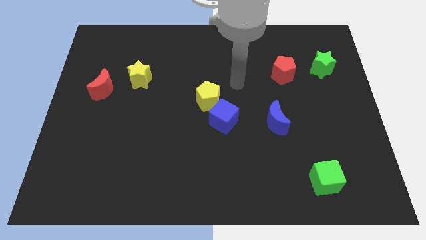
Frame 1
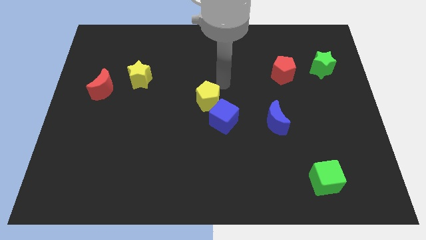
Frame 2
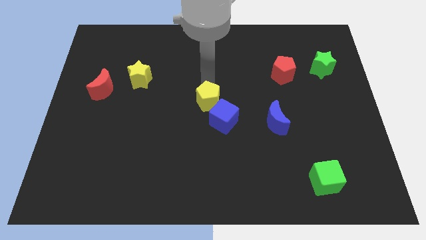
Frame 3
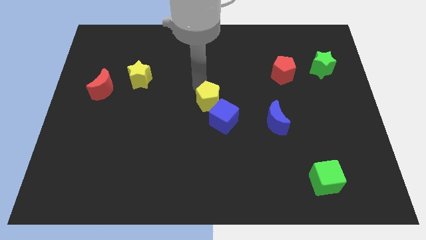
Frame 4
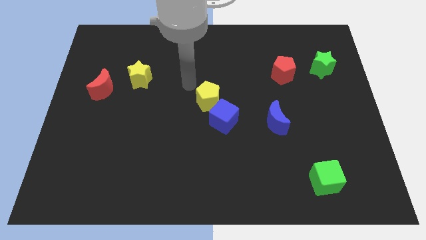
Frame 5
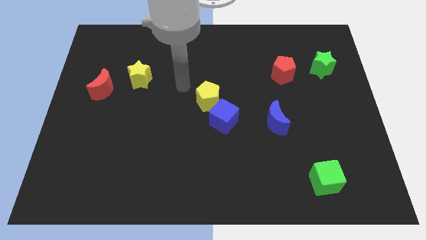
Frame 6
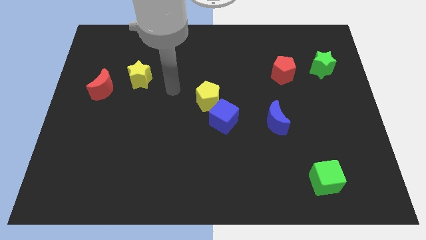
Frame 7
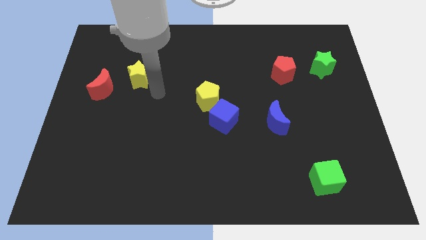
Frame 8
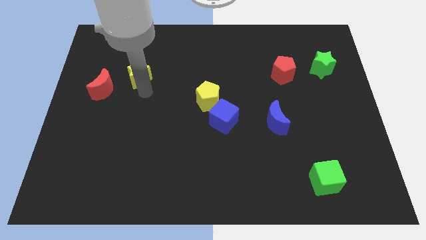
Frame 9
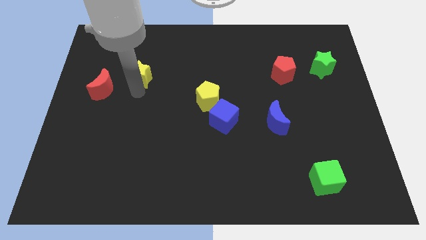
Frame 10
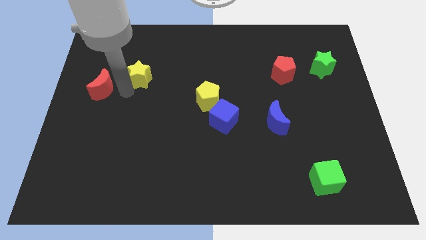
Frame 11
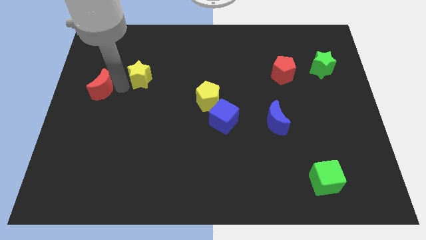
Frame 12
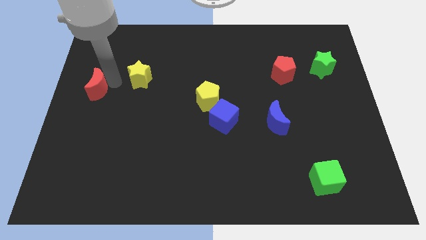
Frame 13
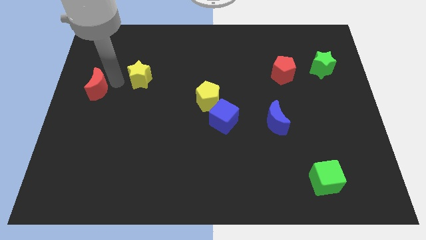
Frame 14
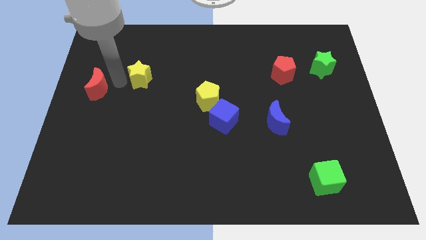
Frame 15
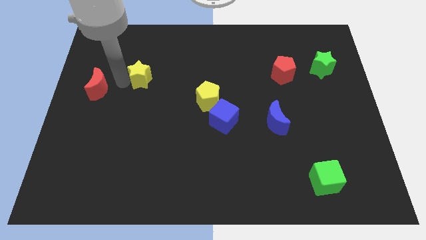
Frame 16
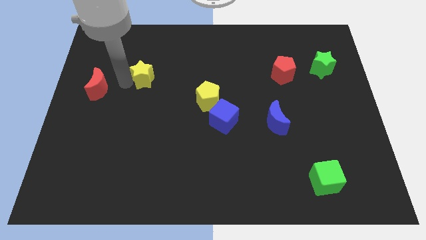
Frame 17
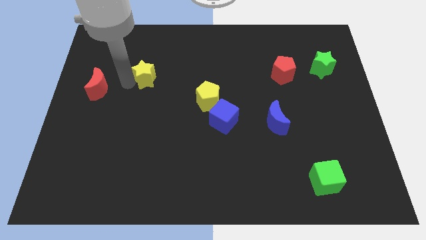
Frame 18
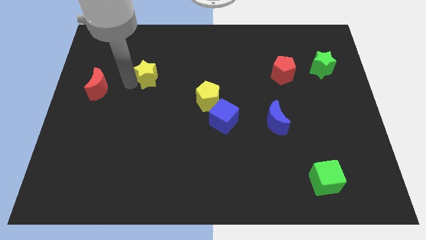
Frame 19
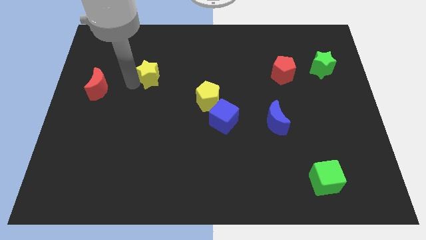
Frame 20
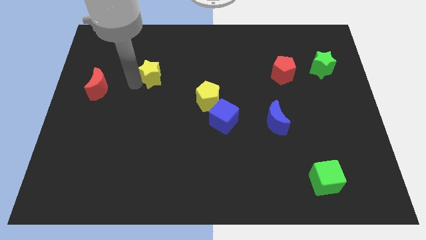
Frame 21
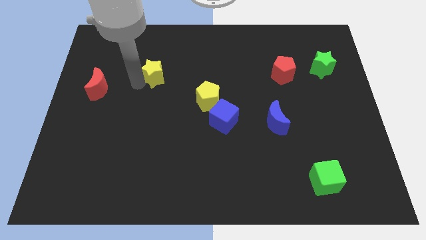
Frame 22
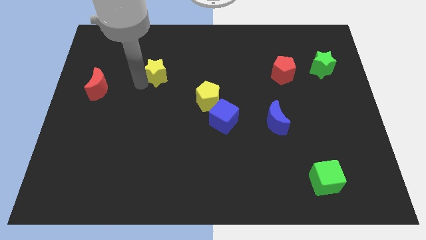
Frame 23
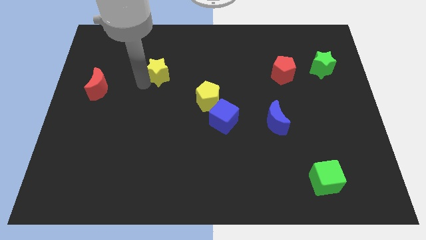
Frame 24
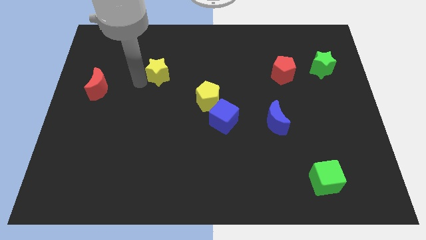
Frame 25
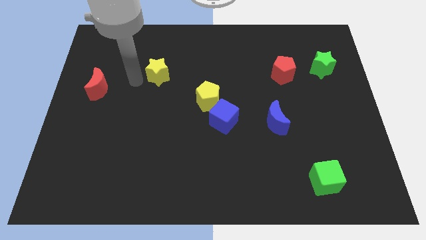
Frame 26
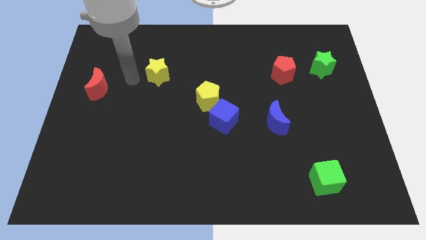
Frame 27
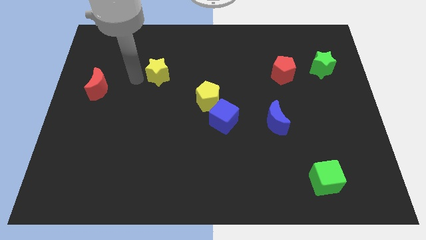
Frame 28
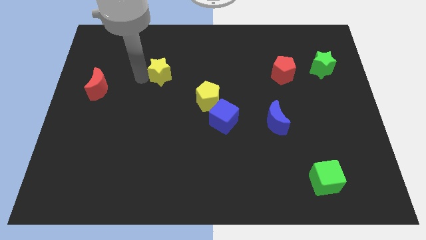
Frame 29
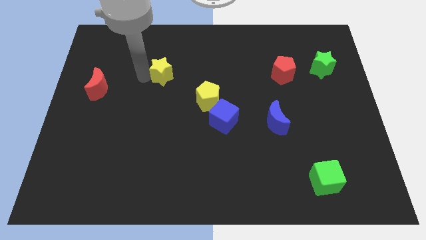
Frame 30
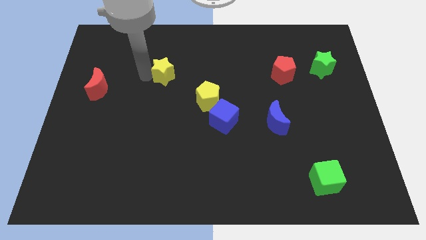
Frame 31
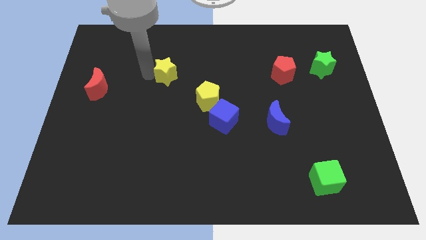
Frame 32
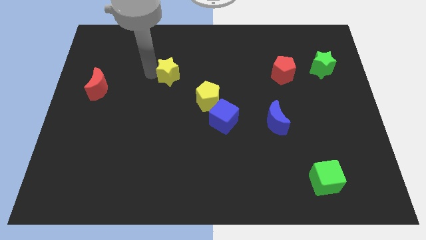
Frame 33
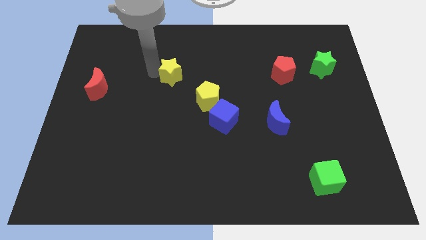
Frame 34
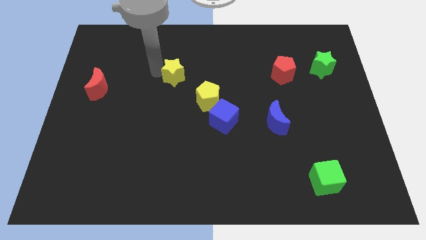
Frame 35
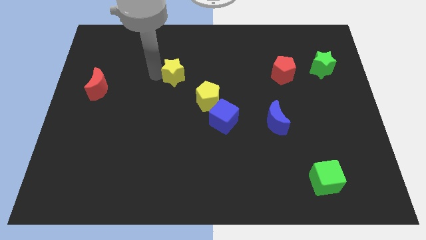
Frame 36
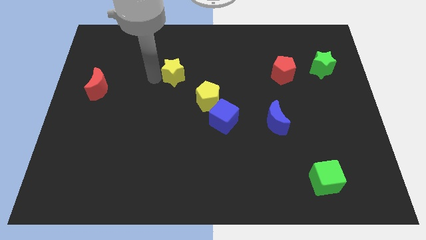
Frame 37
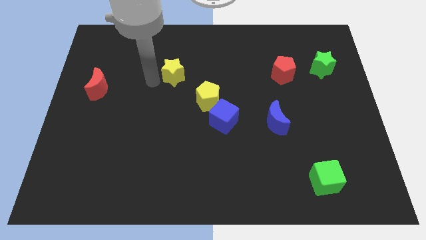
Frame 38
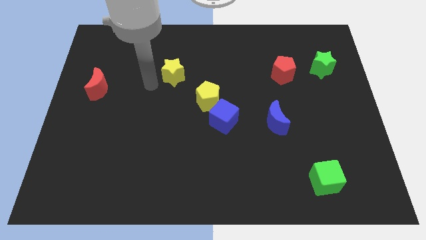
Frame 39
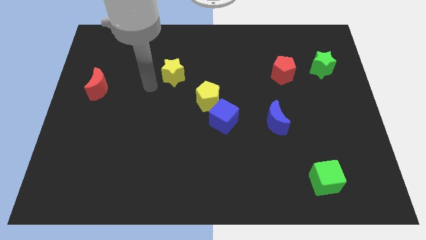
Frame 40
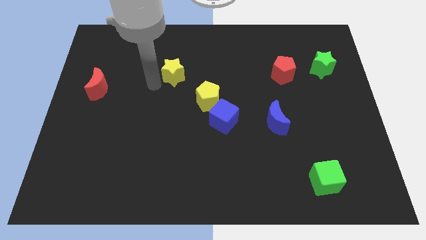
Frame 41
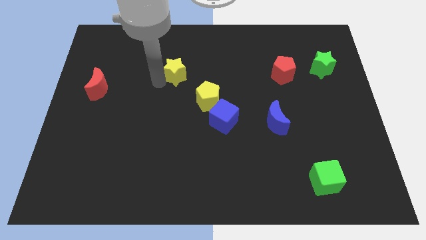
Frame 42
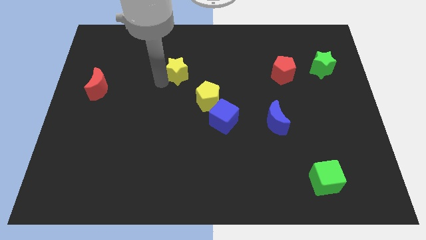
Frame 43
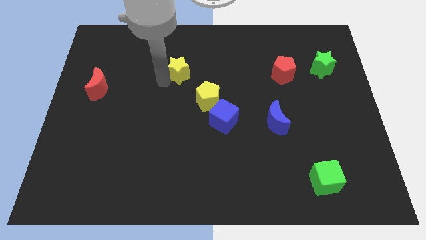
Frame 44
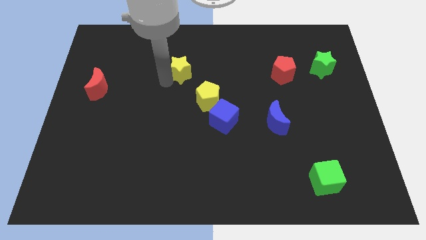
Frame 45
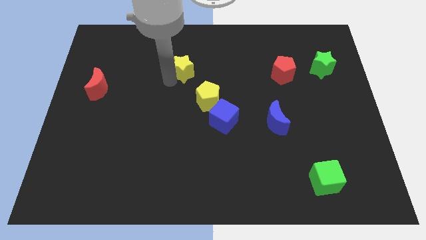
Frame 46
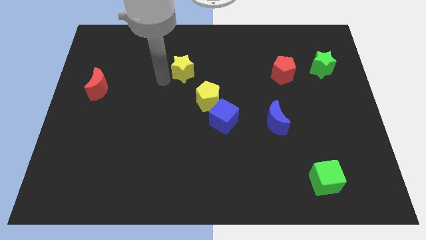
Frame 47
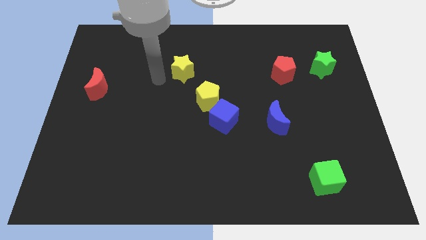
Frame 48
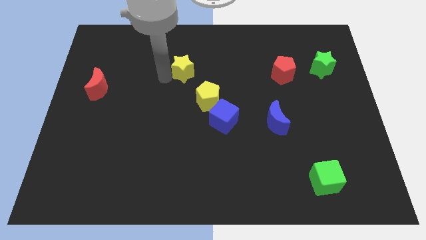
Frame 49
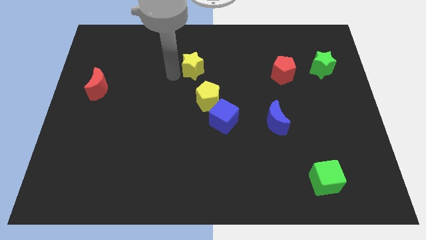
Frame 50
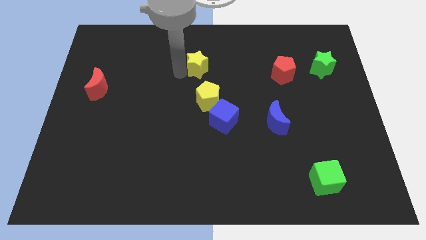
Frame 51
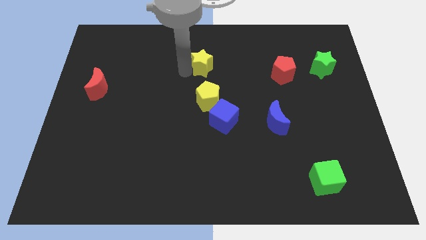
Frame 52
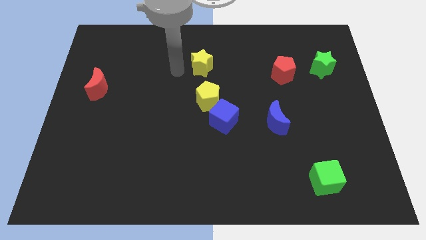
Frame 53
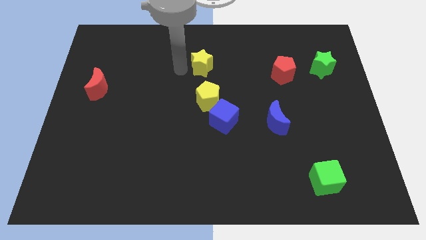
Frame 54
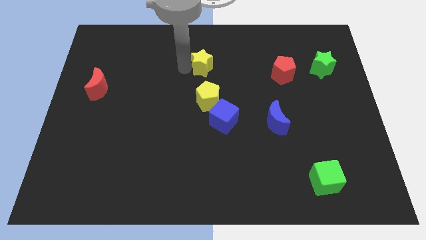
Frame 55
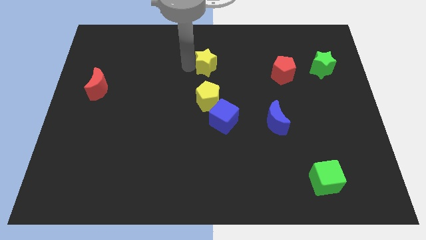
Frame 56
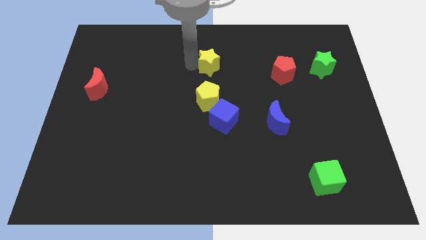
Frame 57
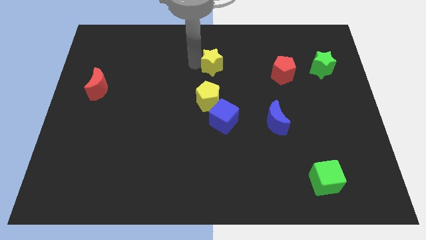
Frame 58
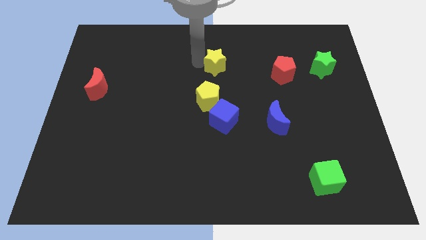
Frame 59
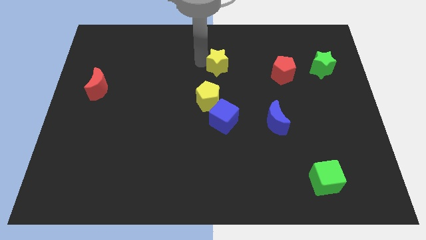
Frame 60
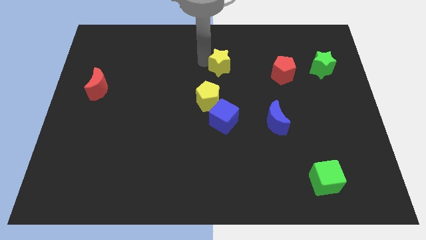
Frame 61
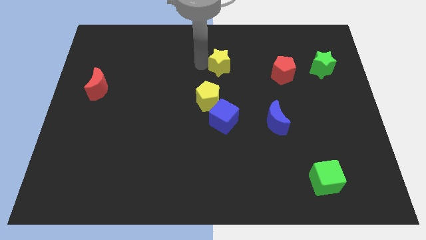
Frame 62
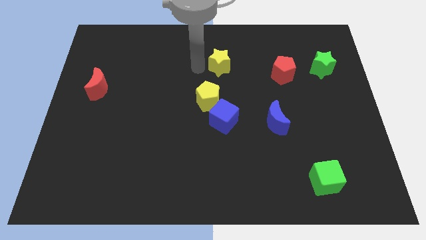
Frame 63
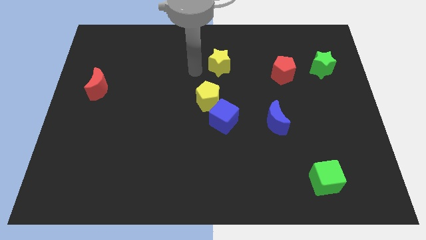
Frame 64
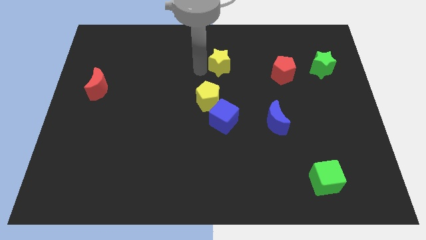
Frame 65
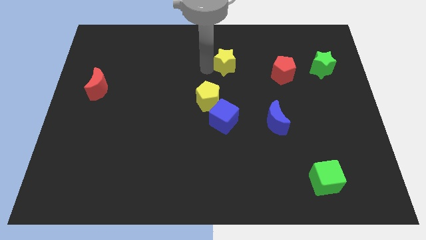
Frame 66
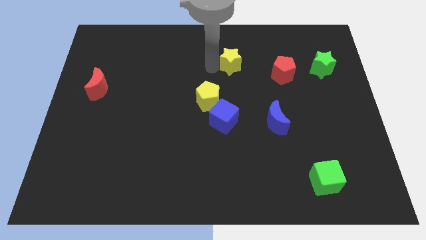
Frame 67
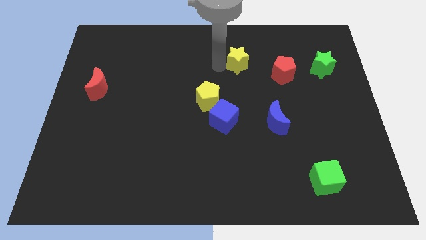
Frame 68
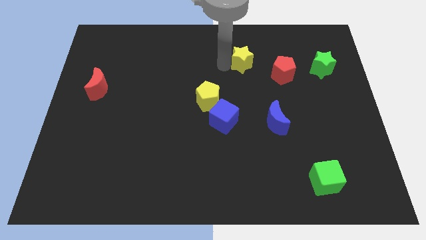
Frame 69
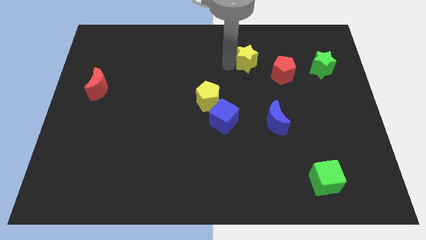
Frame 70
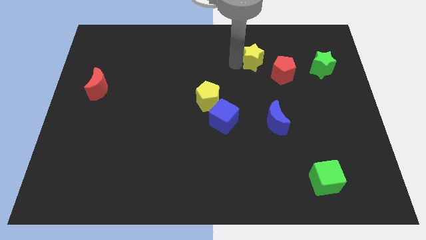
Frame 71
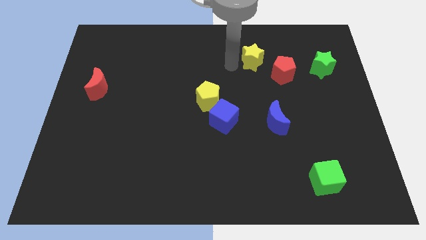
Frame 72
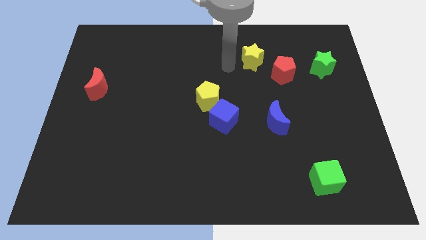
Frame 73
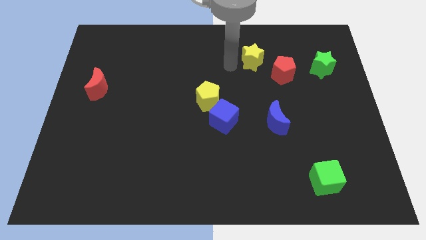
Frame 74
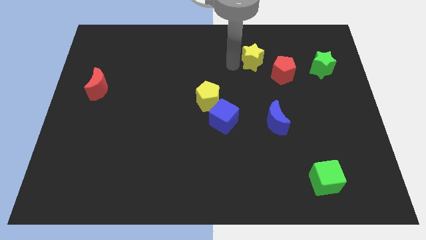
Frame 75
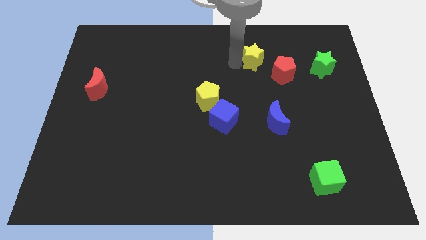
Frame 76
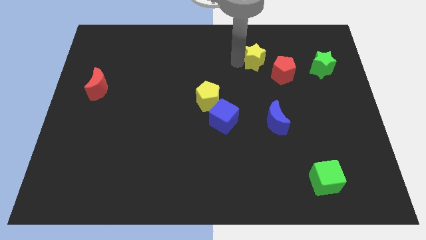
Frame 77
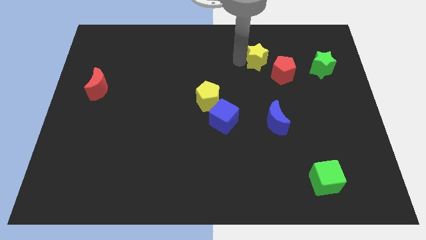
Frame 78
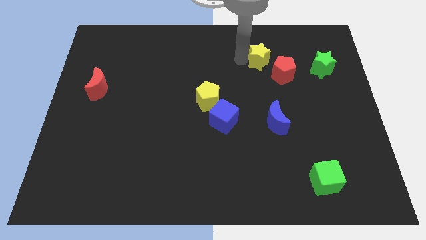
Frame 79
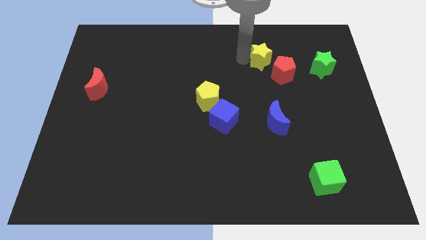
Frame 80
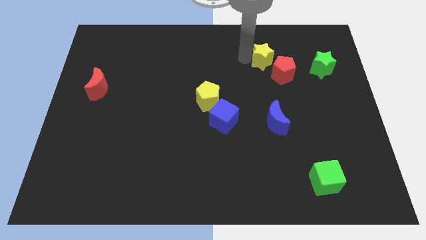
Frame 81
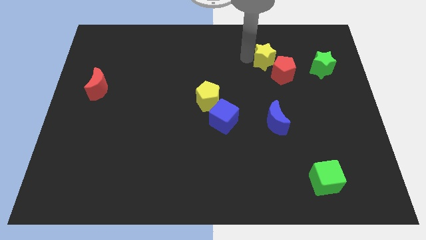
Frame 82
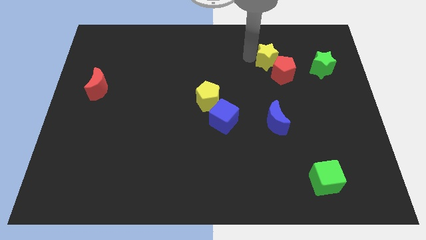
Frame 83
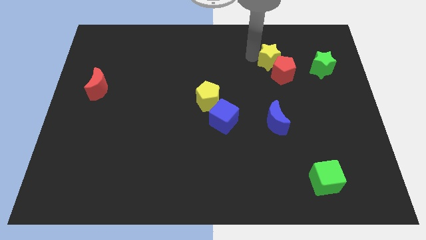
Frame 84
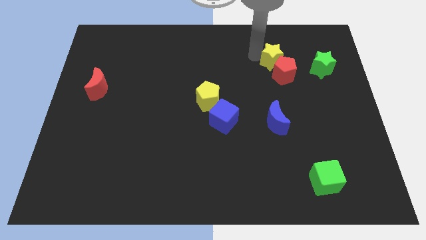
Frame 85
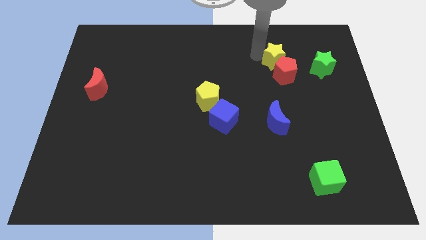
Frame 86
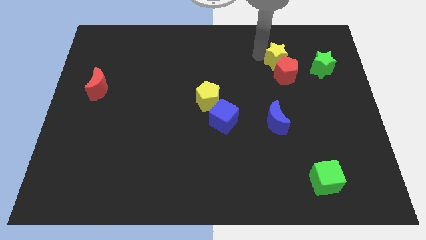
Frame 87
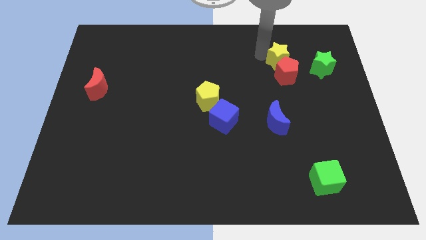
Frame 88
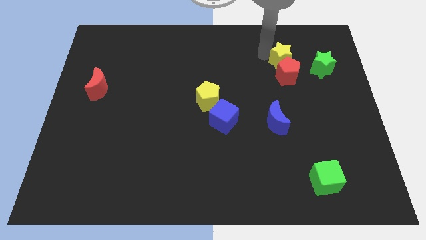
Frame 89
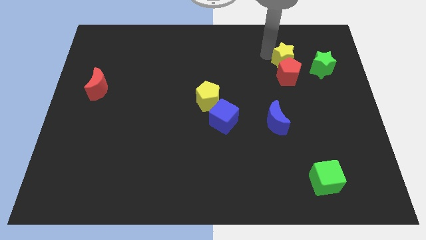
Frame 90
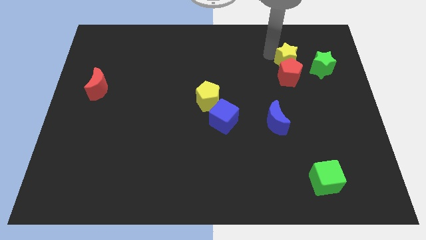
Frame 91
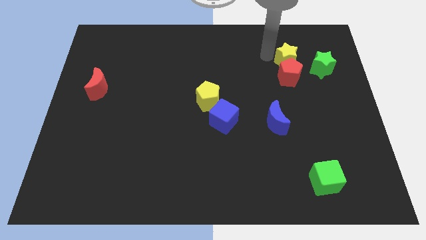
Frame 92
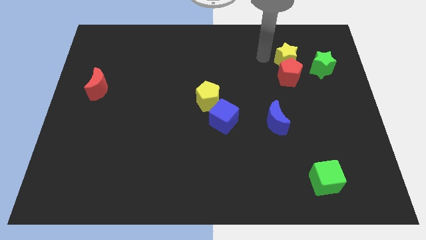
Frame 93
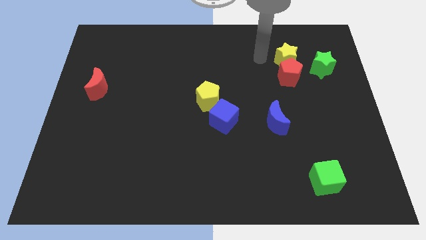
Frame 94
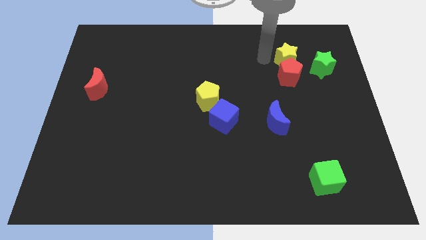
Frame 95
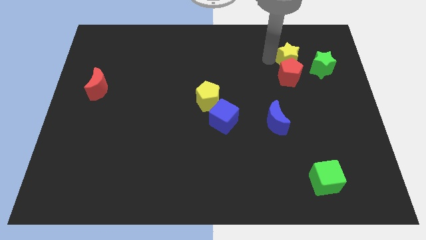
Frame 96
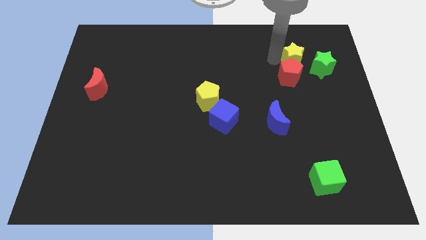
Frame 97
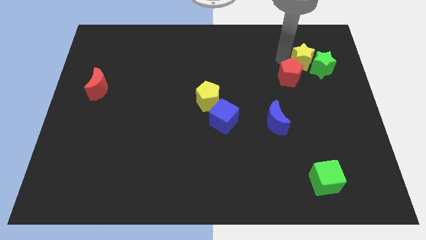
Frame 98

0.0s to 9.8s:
slide the yellow star next to the green star
